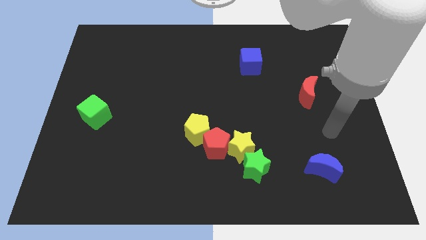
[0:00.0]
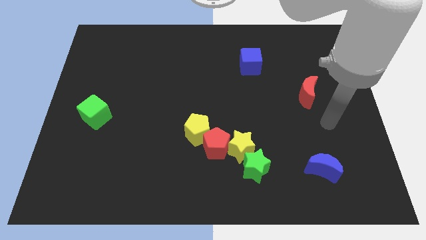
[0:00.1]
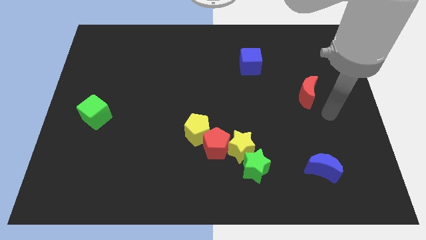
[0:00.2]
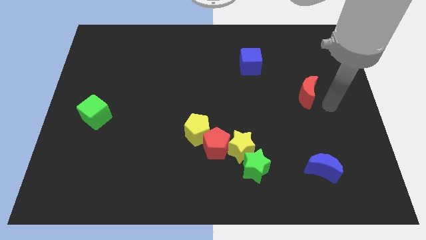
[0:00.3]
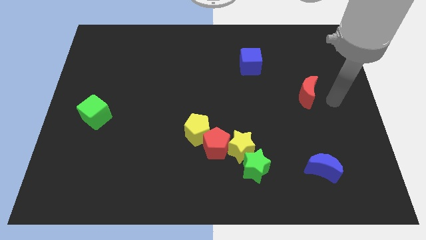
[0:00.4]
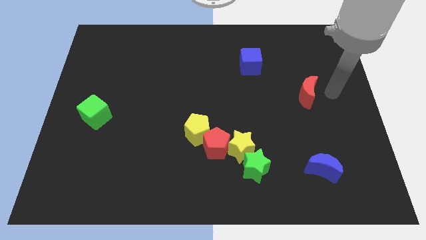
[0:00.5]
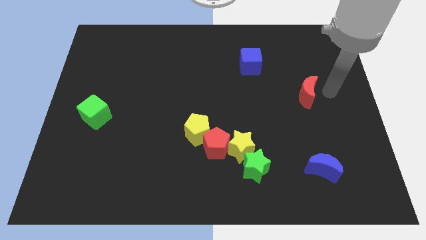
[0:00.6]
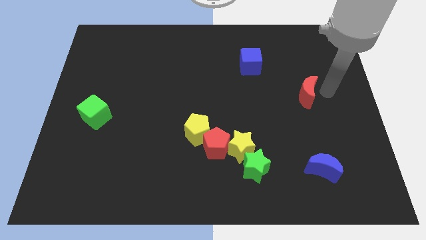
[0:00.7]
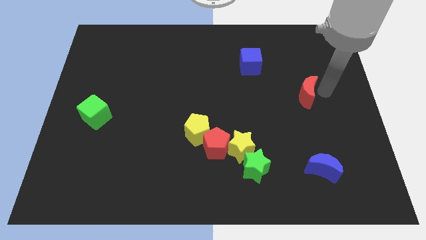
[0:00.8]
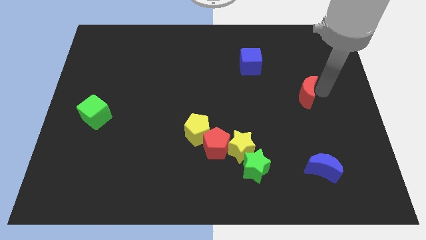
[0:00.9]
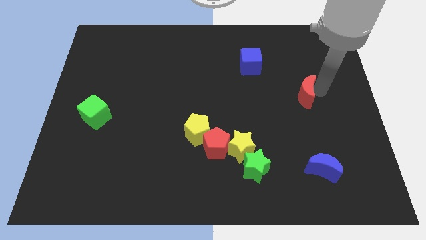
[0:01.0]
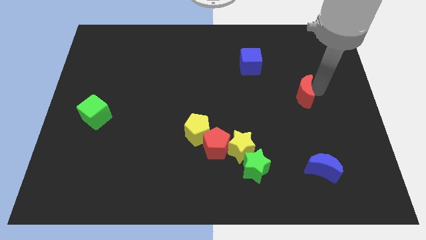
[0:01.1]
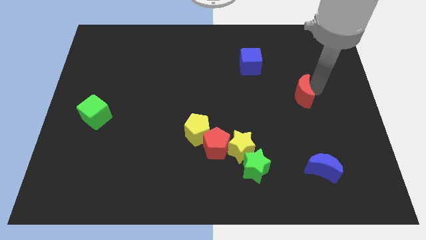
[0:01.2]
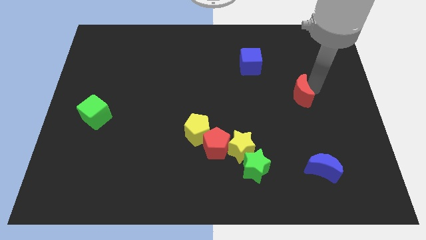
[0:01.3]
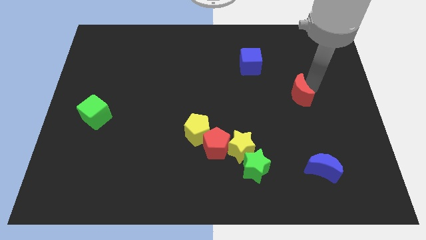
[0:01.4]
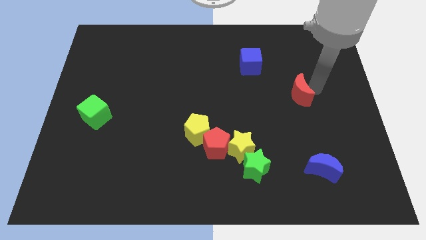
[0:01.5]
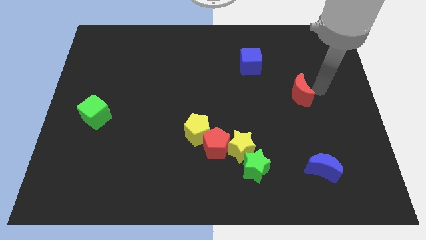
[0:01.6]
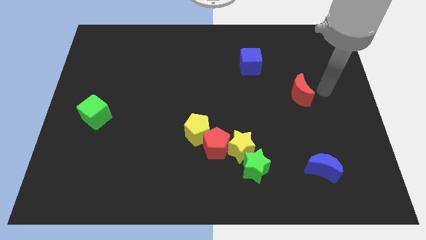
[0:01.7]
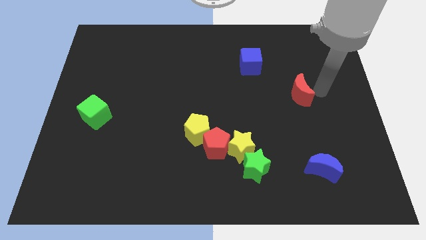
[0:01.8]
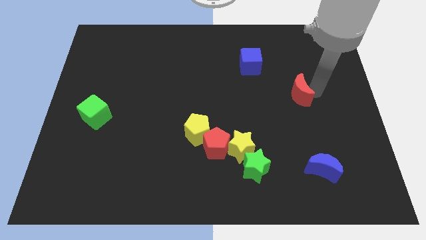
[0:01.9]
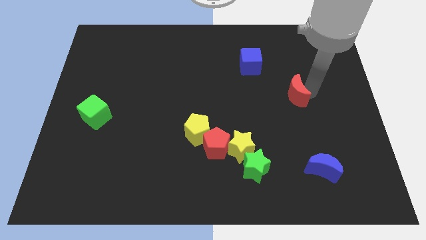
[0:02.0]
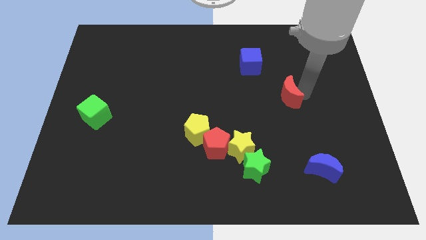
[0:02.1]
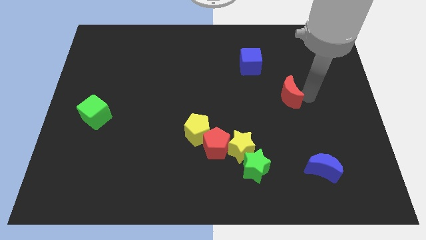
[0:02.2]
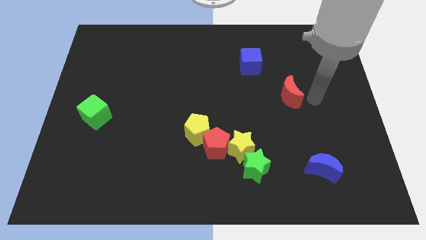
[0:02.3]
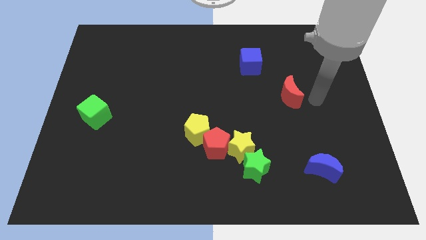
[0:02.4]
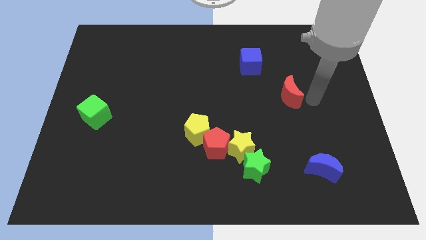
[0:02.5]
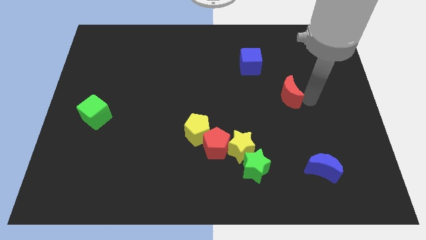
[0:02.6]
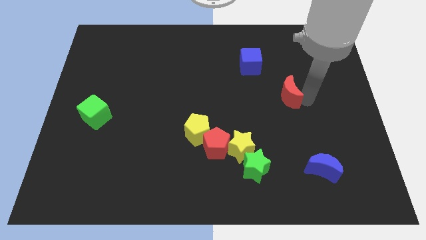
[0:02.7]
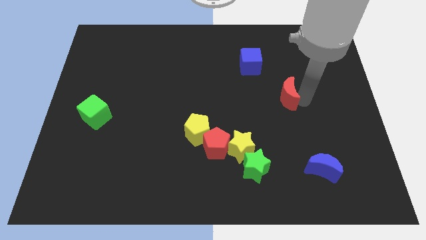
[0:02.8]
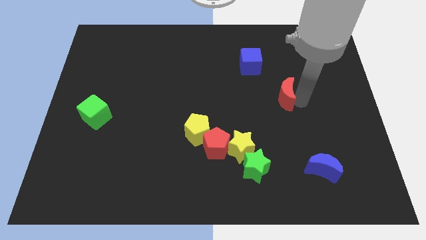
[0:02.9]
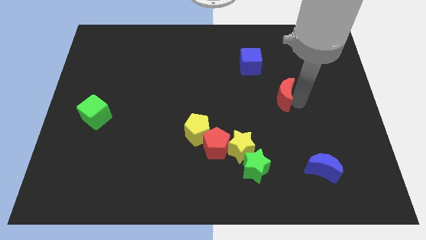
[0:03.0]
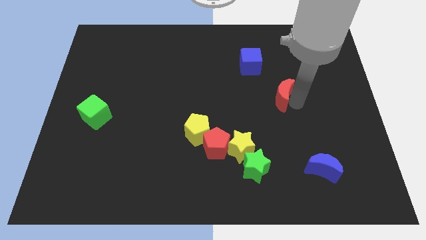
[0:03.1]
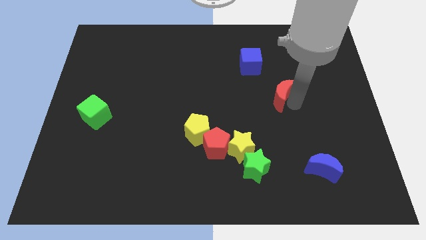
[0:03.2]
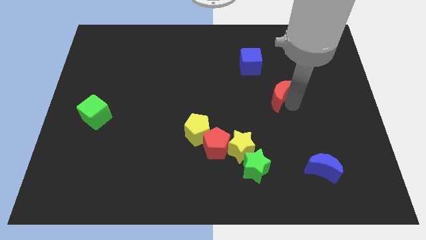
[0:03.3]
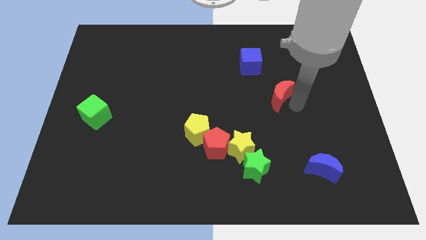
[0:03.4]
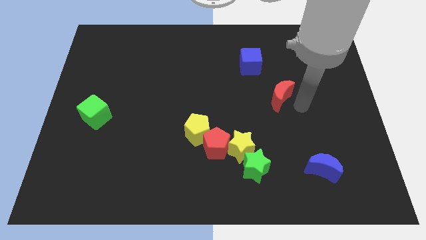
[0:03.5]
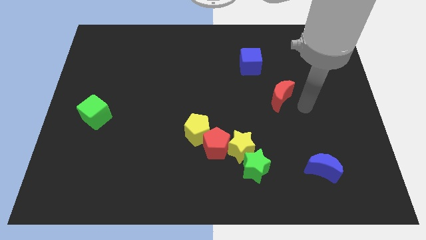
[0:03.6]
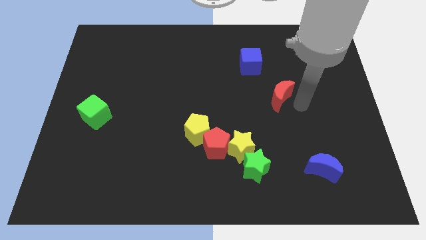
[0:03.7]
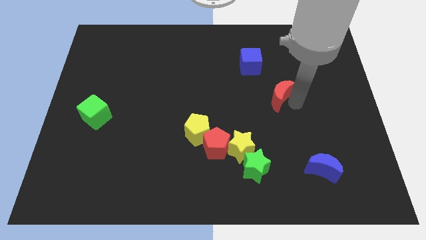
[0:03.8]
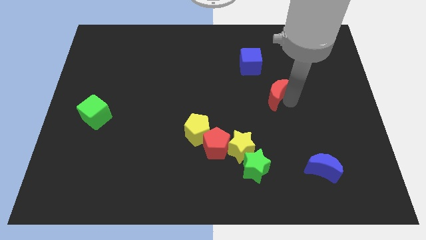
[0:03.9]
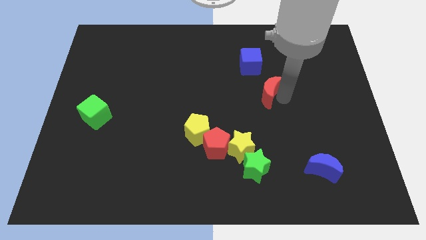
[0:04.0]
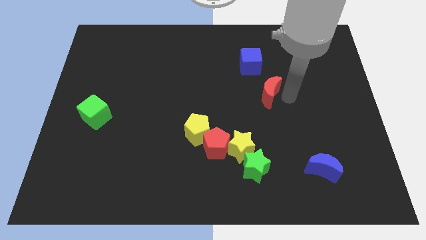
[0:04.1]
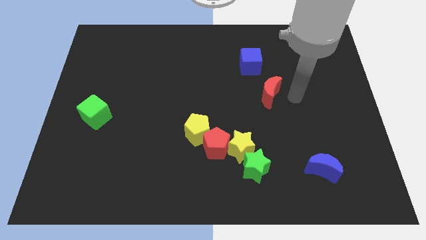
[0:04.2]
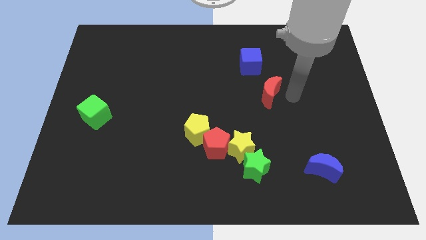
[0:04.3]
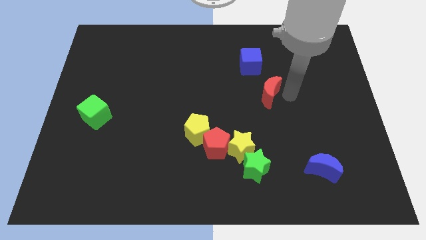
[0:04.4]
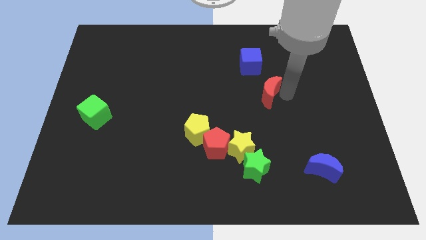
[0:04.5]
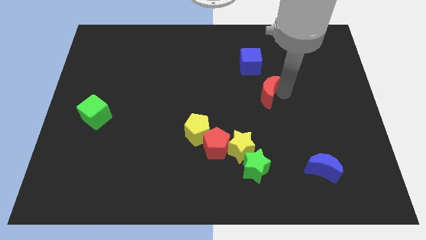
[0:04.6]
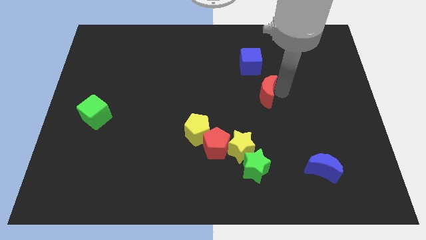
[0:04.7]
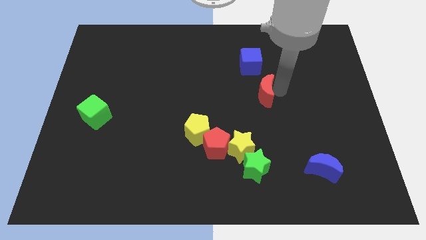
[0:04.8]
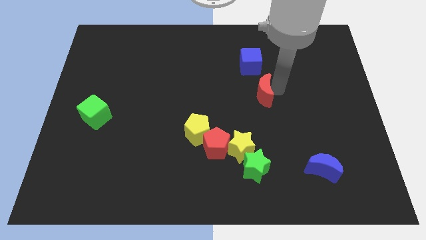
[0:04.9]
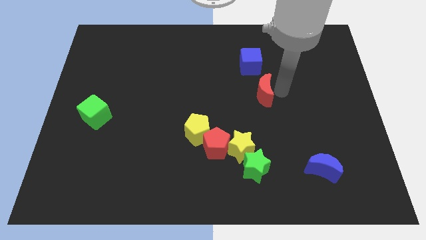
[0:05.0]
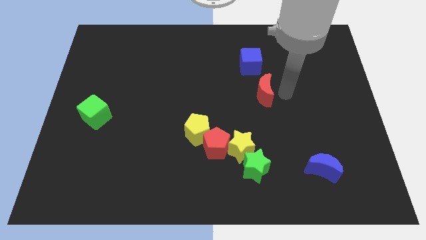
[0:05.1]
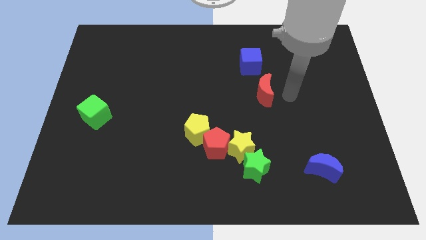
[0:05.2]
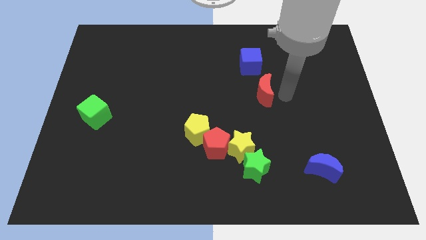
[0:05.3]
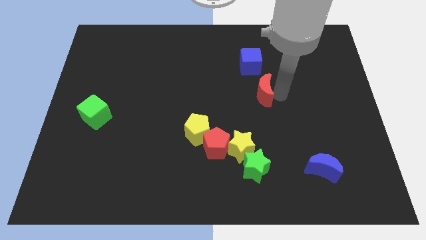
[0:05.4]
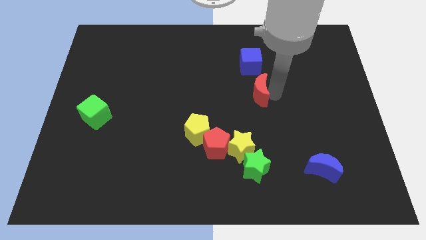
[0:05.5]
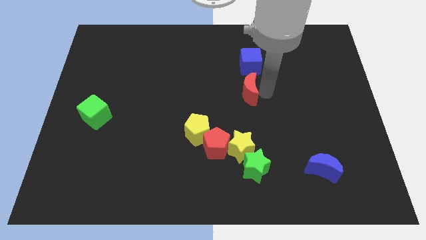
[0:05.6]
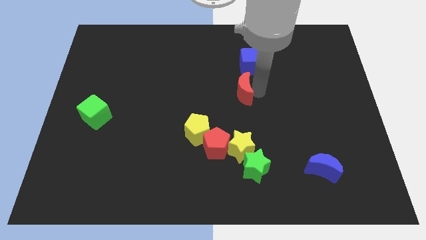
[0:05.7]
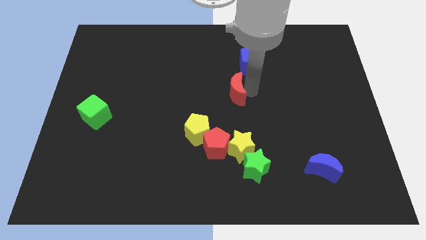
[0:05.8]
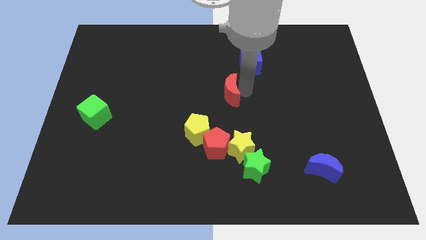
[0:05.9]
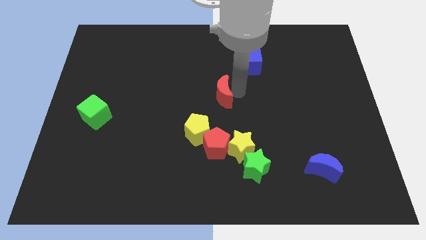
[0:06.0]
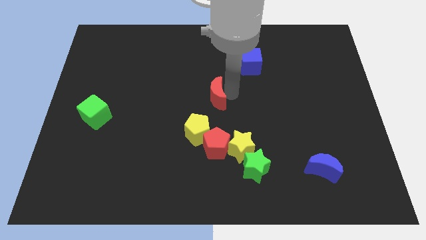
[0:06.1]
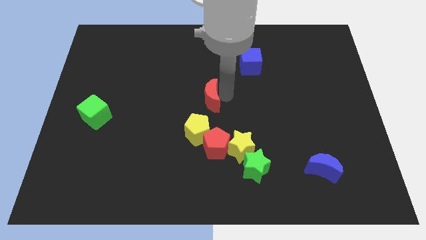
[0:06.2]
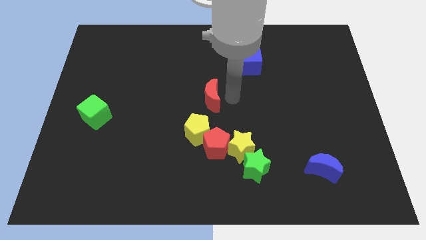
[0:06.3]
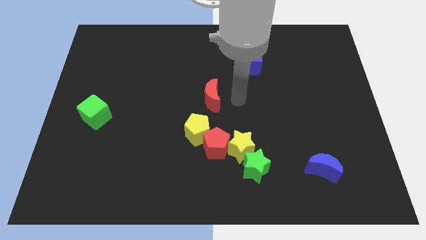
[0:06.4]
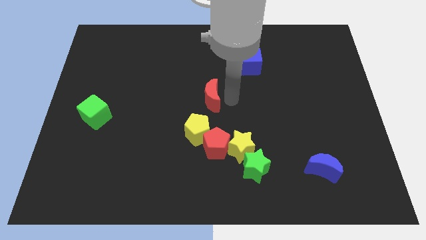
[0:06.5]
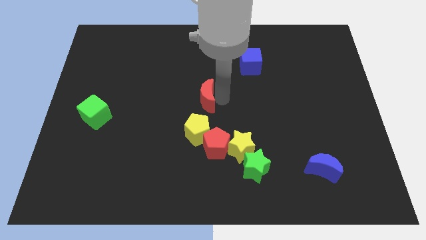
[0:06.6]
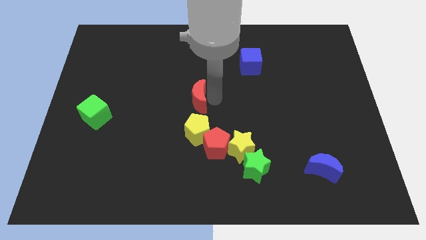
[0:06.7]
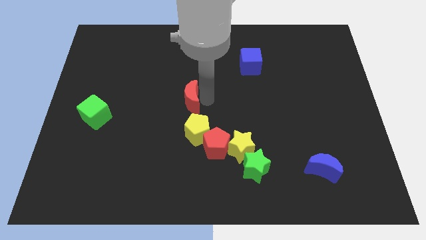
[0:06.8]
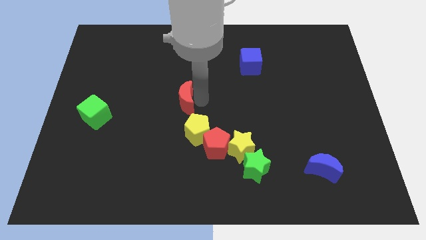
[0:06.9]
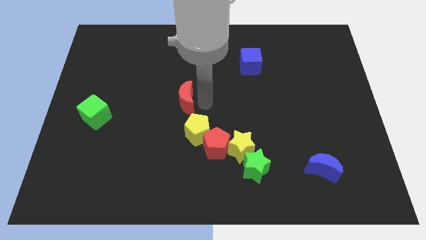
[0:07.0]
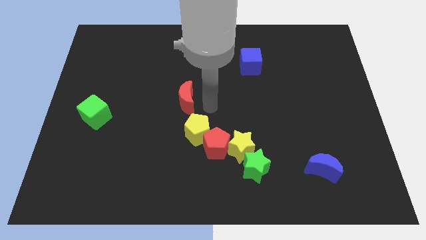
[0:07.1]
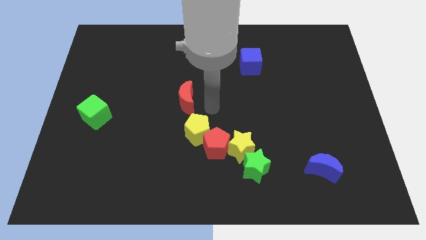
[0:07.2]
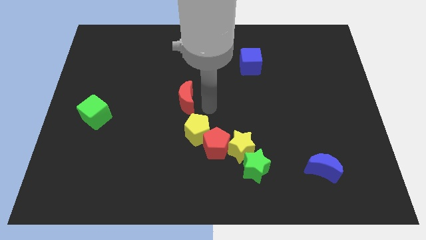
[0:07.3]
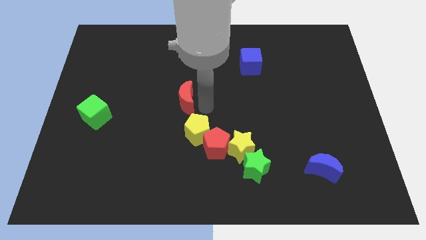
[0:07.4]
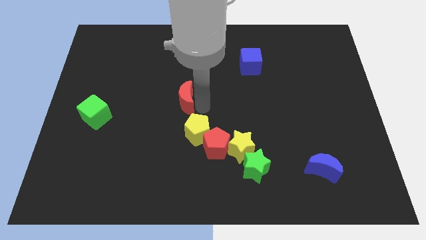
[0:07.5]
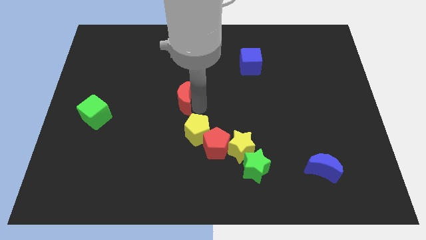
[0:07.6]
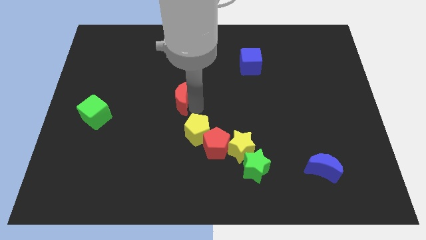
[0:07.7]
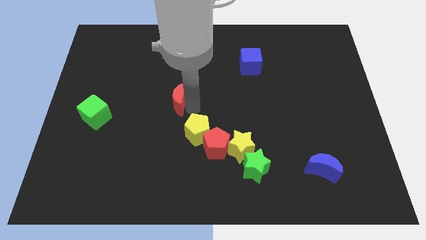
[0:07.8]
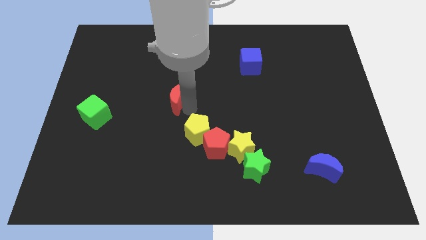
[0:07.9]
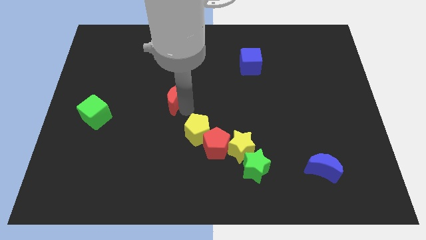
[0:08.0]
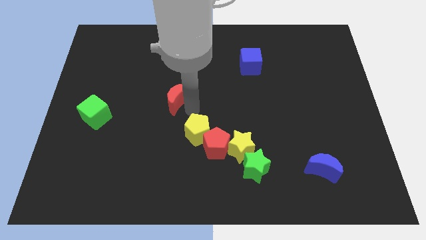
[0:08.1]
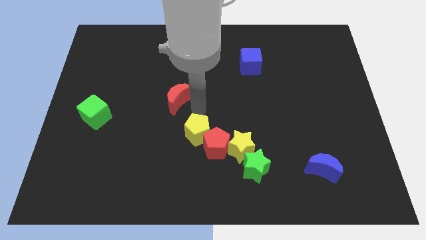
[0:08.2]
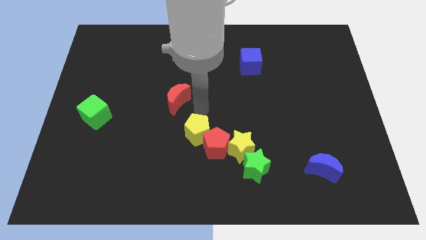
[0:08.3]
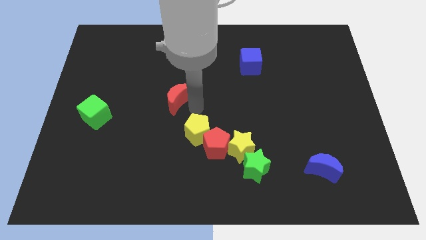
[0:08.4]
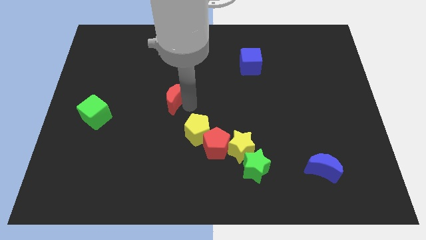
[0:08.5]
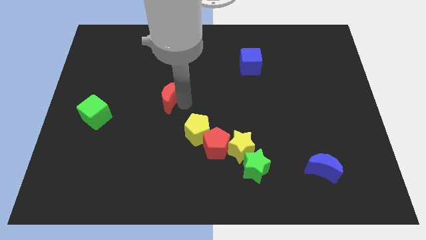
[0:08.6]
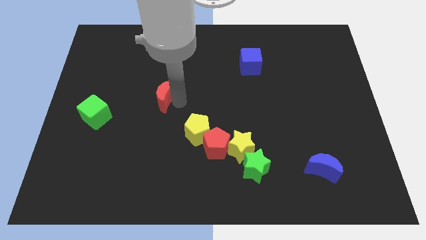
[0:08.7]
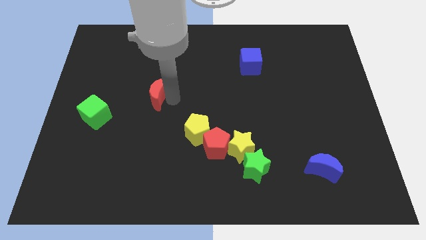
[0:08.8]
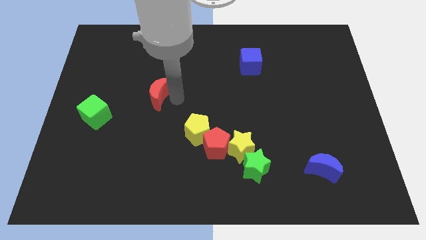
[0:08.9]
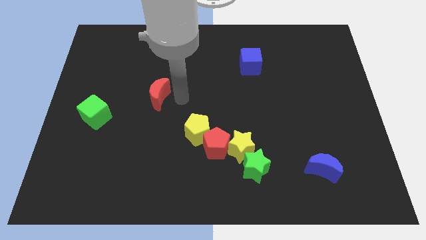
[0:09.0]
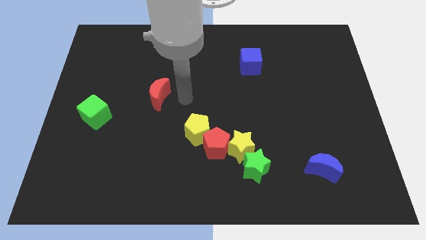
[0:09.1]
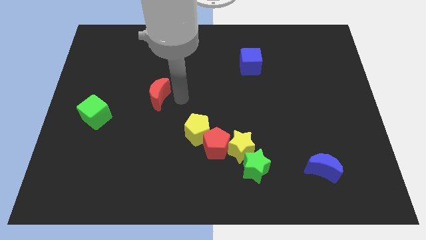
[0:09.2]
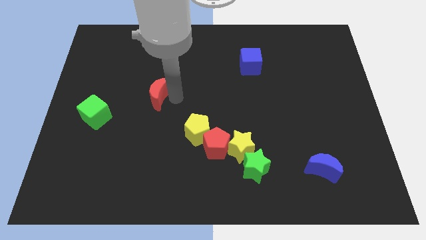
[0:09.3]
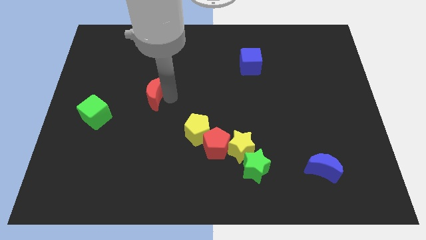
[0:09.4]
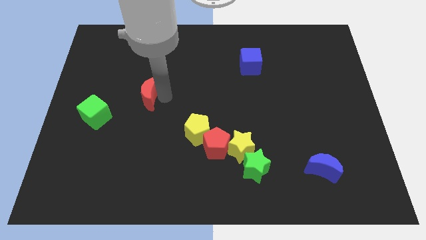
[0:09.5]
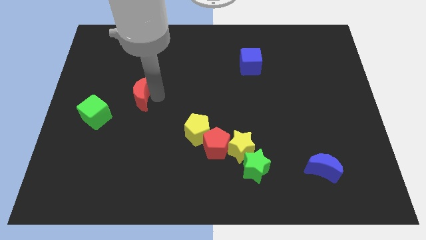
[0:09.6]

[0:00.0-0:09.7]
move the red moon to the top right of the green cube
